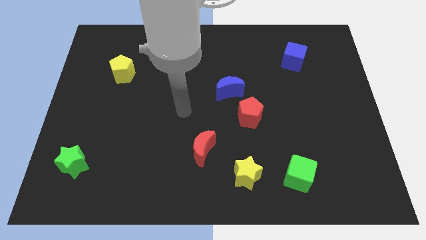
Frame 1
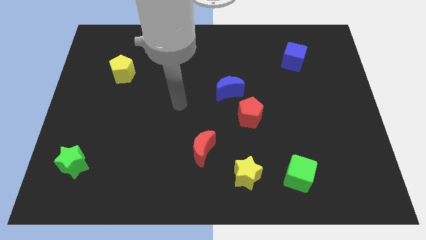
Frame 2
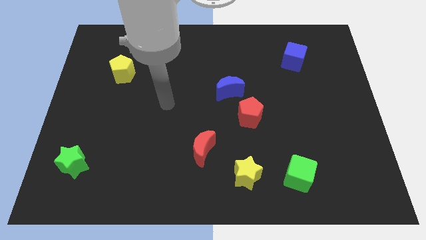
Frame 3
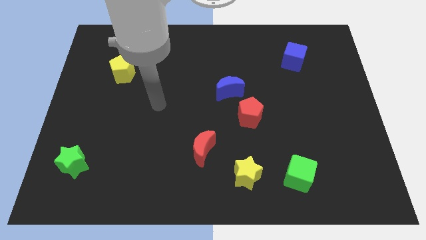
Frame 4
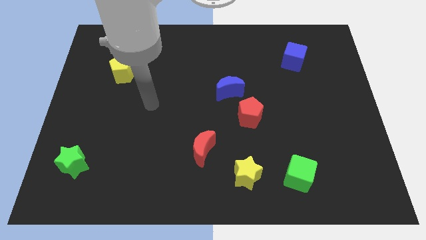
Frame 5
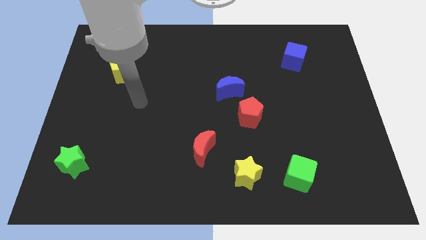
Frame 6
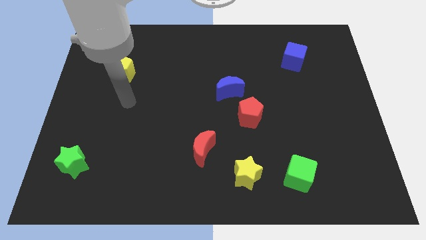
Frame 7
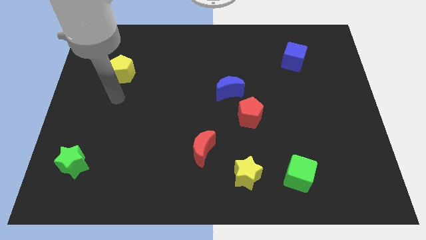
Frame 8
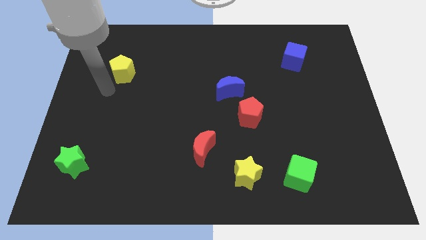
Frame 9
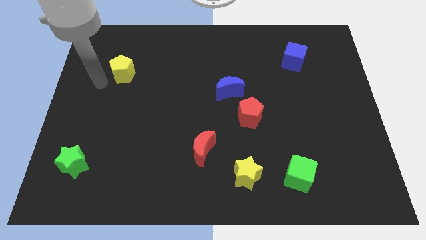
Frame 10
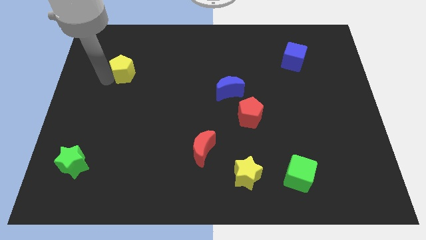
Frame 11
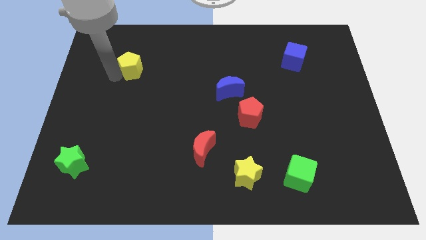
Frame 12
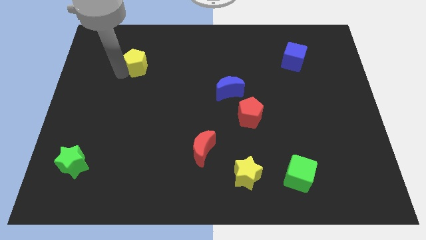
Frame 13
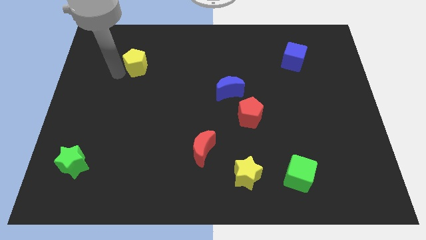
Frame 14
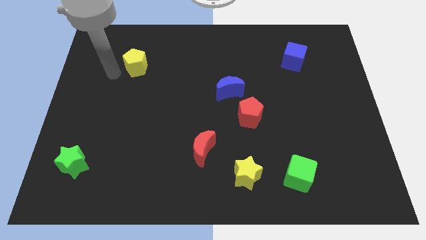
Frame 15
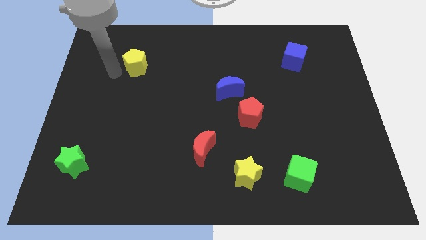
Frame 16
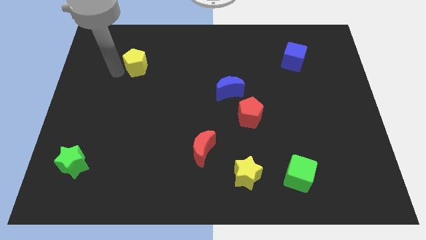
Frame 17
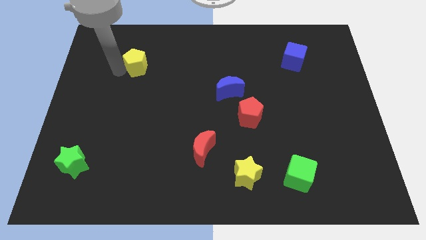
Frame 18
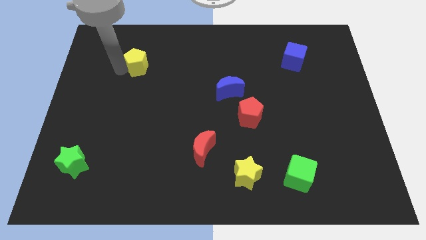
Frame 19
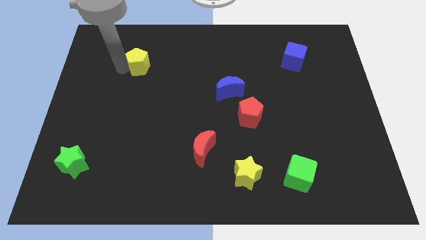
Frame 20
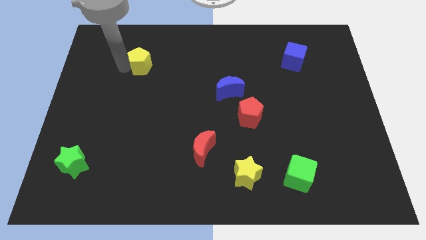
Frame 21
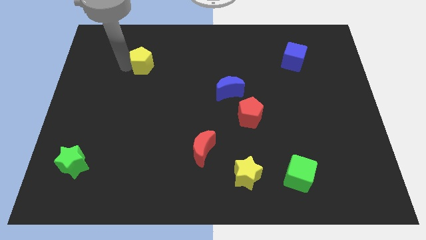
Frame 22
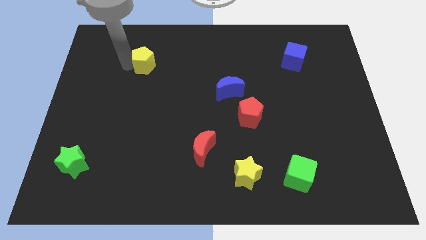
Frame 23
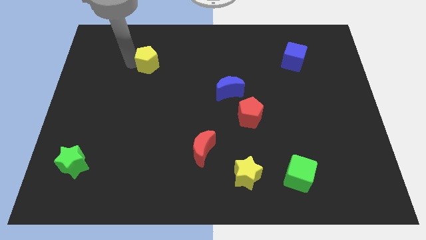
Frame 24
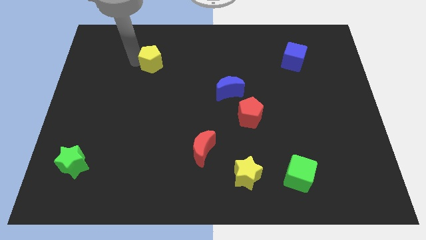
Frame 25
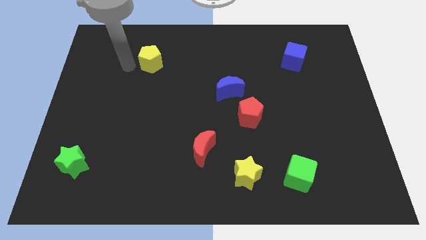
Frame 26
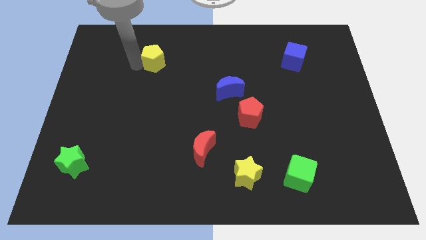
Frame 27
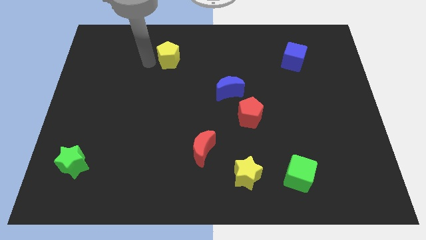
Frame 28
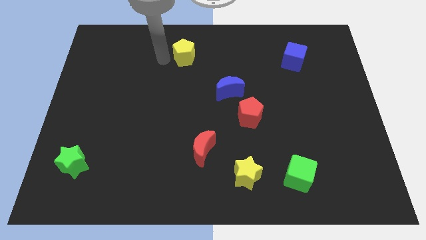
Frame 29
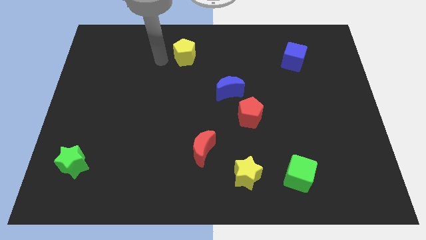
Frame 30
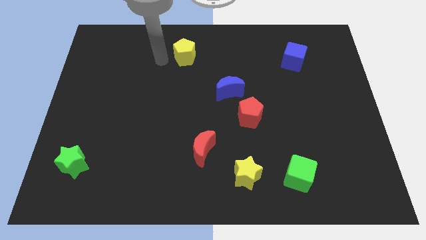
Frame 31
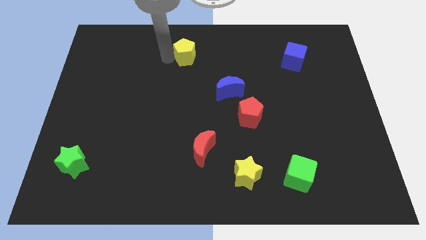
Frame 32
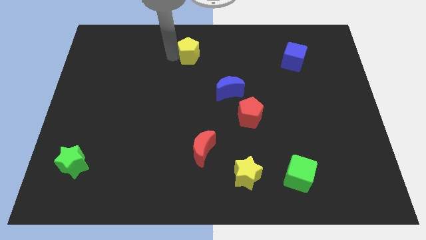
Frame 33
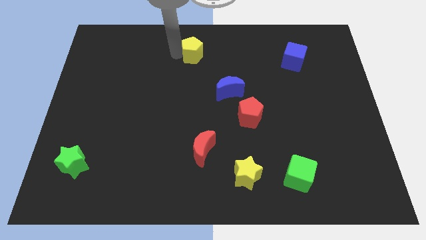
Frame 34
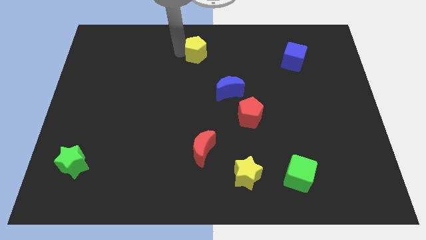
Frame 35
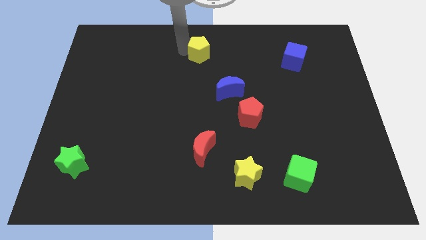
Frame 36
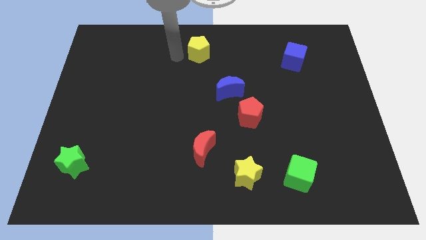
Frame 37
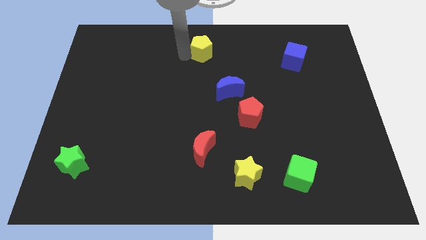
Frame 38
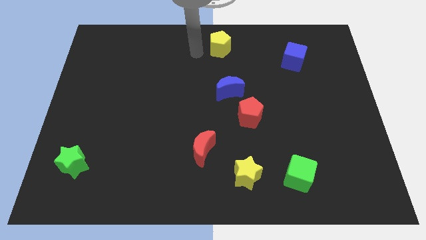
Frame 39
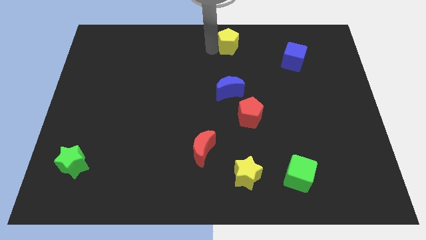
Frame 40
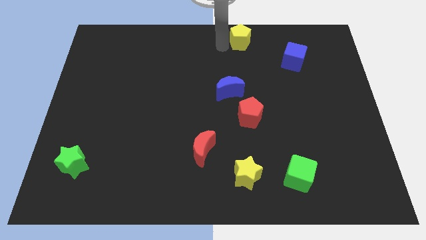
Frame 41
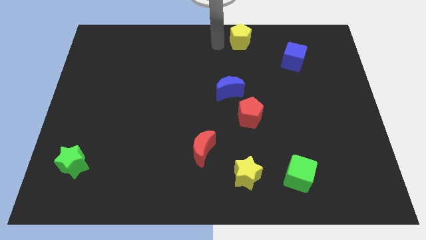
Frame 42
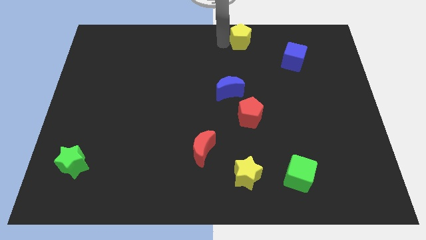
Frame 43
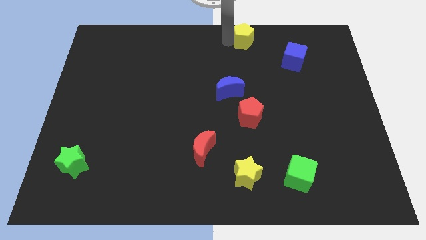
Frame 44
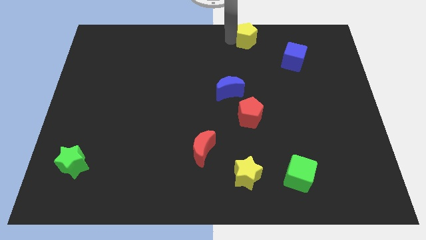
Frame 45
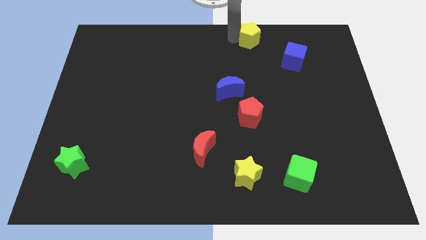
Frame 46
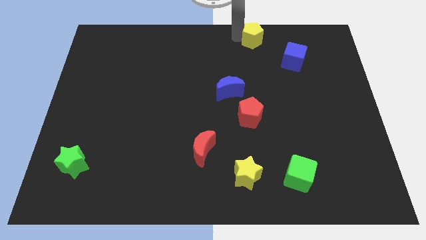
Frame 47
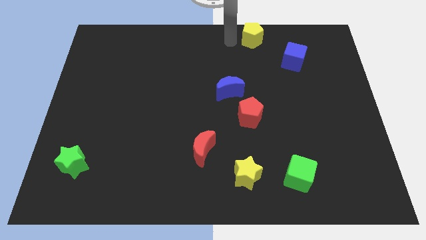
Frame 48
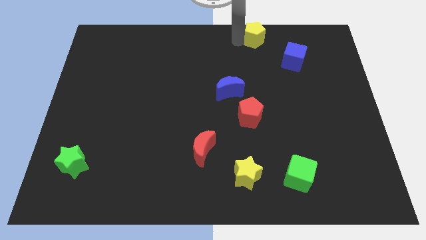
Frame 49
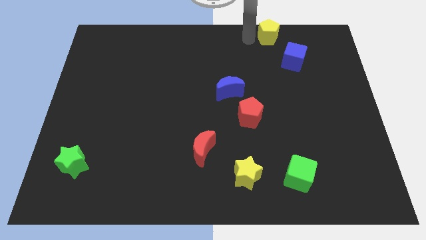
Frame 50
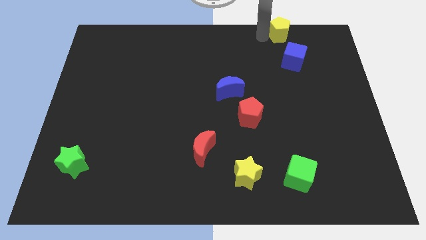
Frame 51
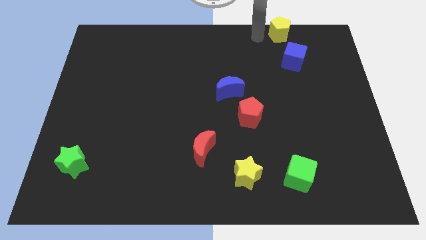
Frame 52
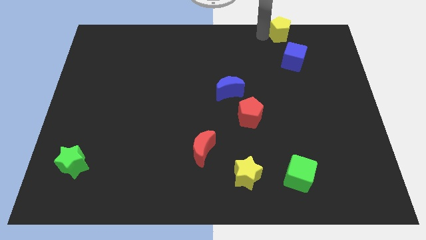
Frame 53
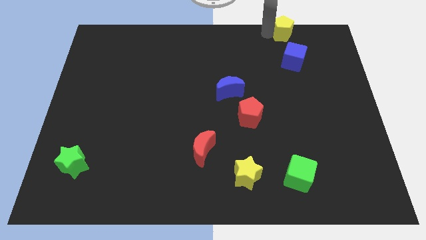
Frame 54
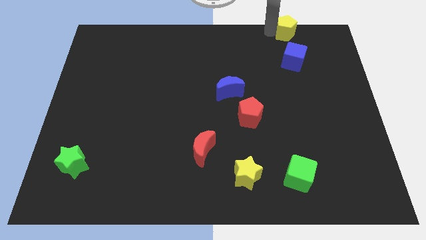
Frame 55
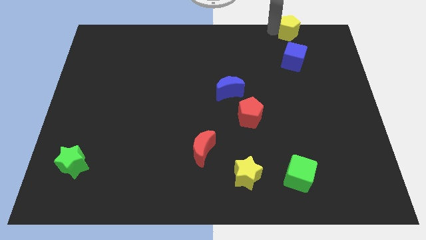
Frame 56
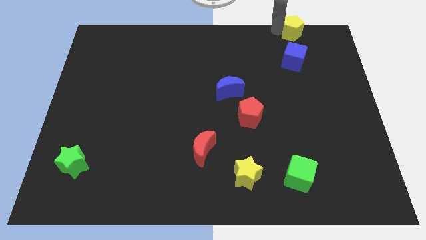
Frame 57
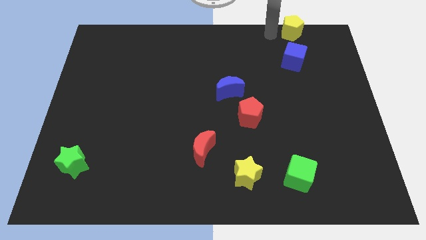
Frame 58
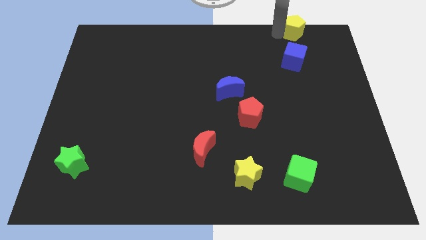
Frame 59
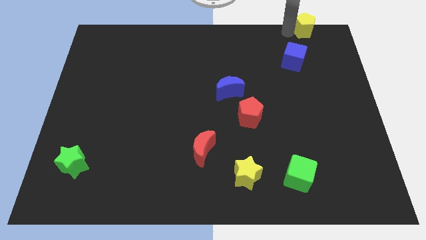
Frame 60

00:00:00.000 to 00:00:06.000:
move the yellow pentagon to the top right

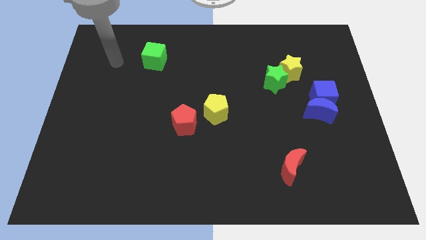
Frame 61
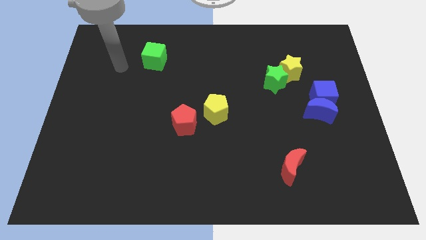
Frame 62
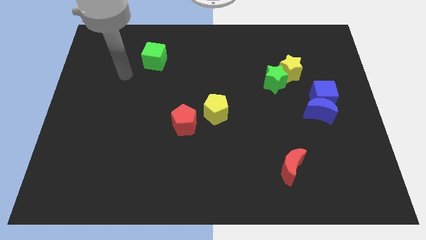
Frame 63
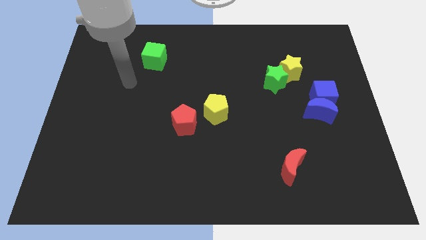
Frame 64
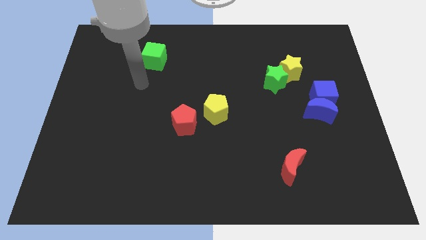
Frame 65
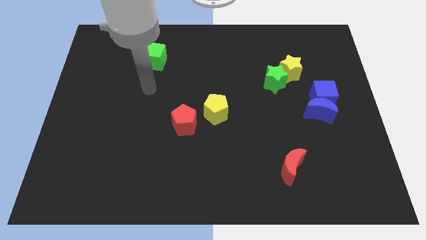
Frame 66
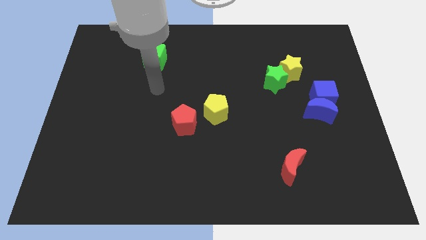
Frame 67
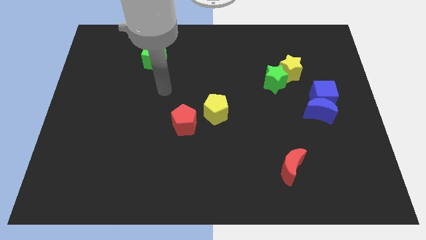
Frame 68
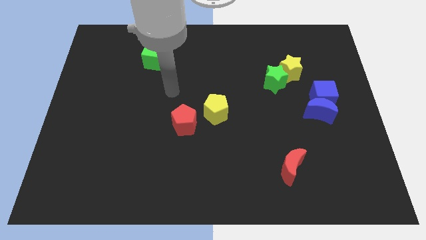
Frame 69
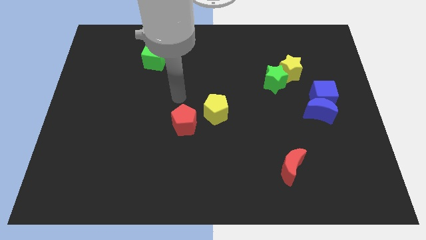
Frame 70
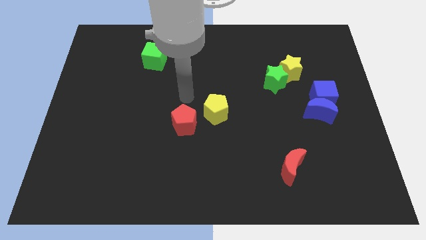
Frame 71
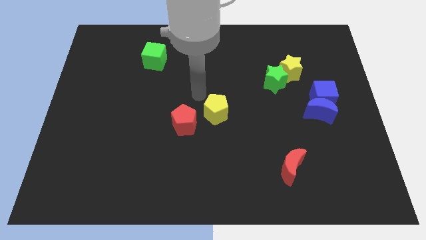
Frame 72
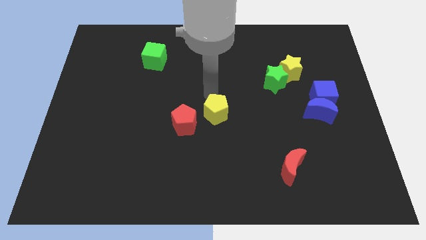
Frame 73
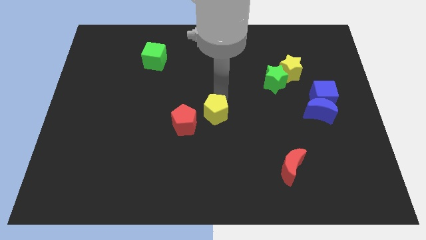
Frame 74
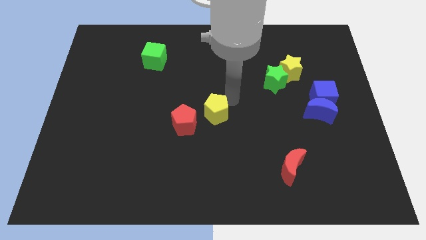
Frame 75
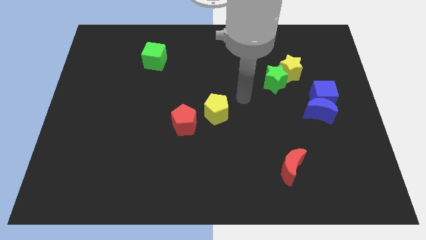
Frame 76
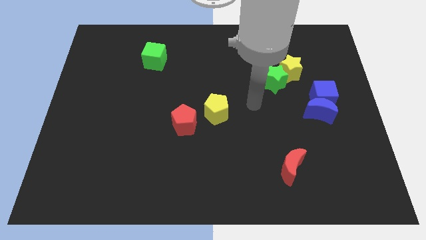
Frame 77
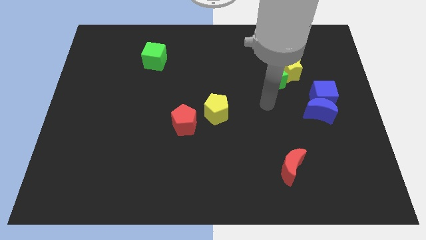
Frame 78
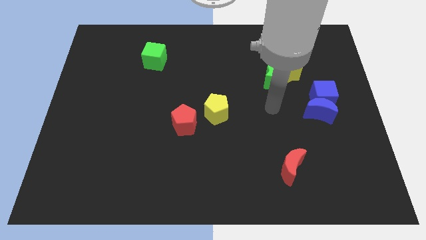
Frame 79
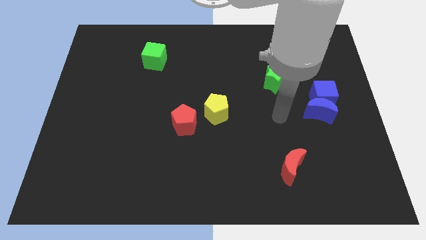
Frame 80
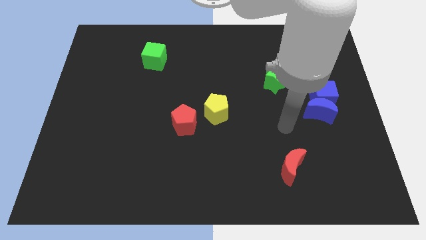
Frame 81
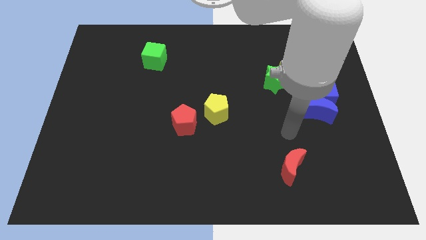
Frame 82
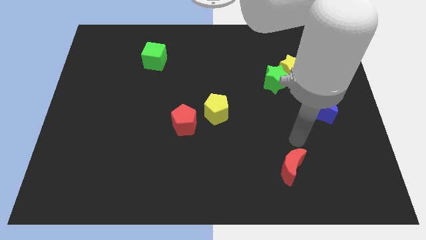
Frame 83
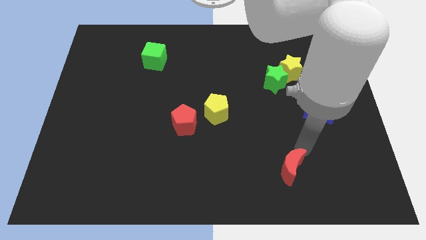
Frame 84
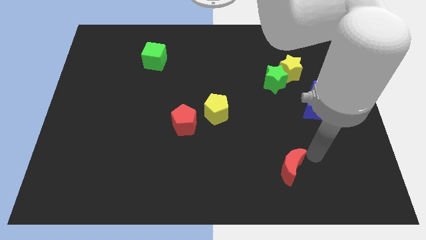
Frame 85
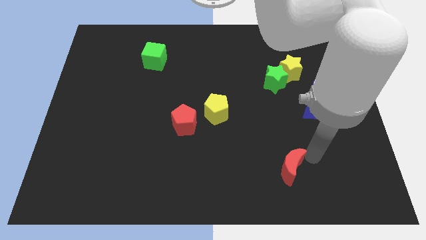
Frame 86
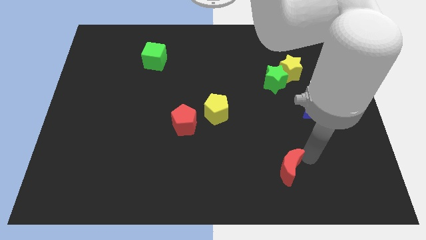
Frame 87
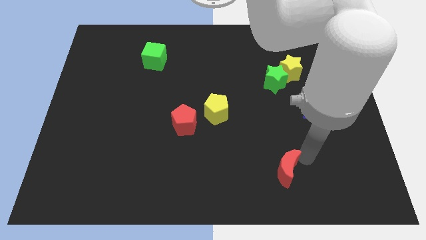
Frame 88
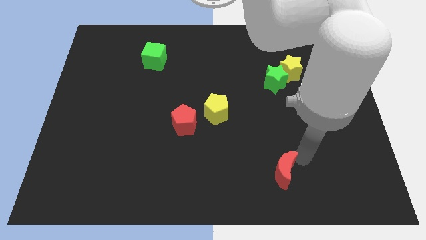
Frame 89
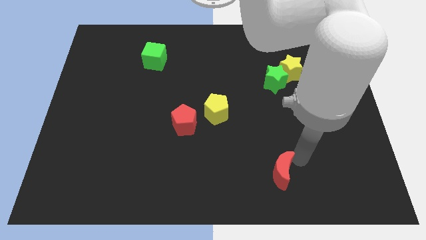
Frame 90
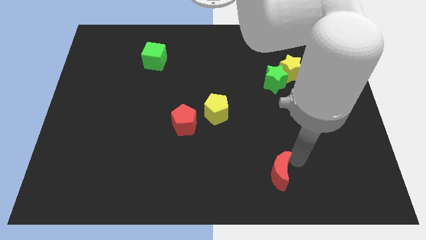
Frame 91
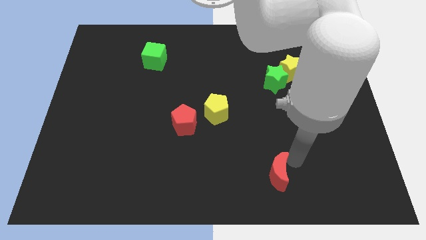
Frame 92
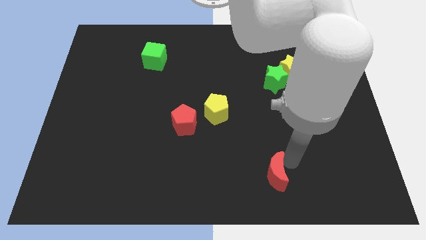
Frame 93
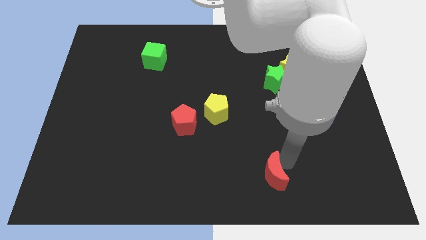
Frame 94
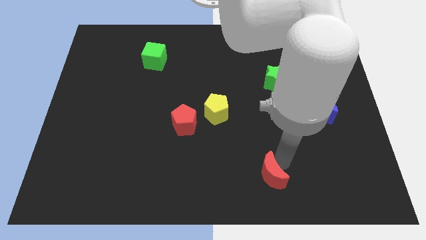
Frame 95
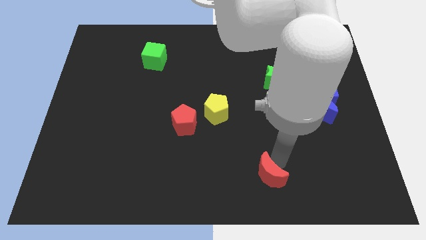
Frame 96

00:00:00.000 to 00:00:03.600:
push the red moon to the bottom
